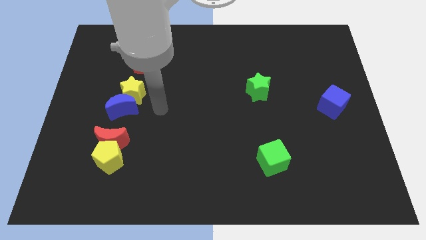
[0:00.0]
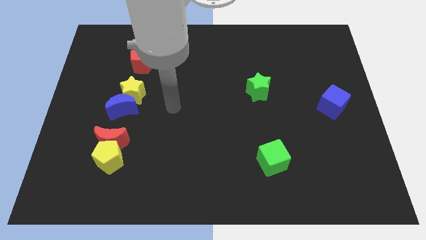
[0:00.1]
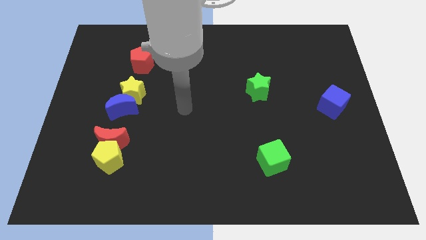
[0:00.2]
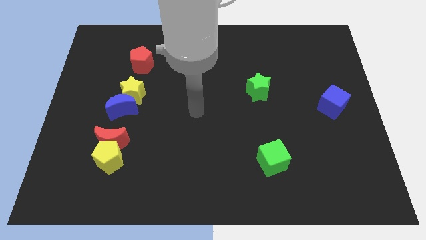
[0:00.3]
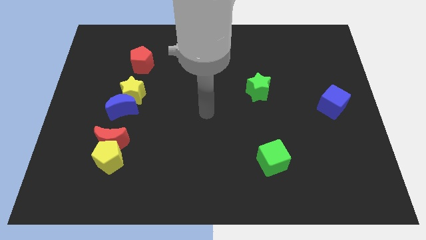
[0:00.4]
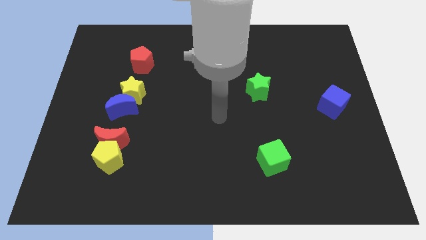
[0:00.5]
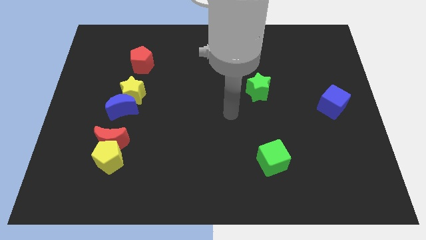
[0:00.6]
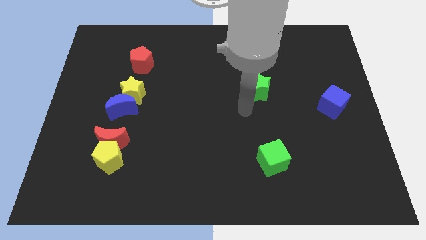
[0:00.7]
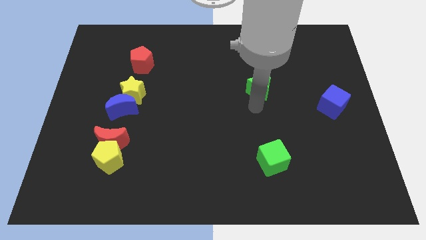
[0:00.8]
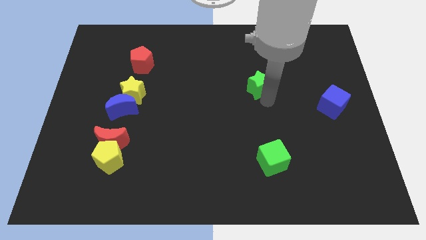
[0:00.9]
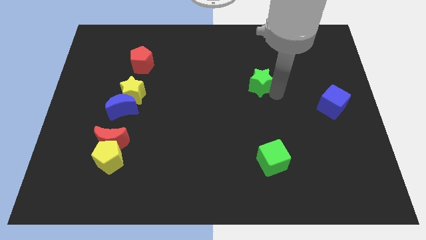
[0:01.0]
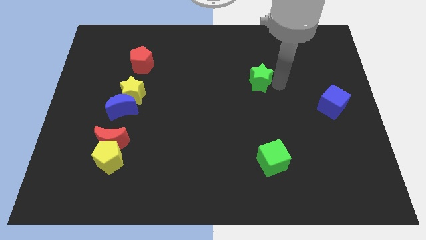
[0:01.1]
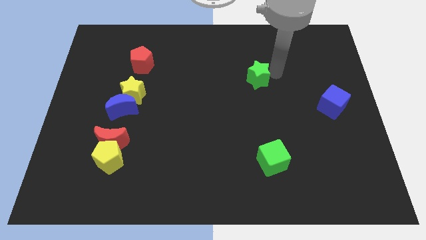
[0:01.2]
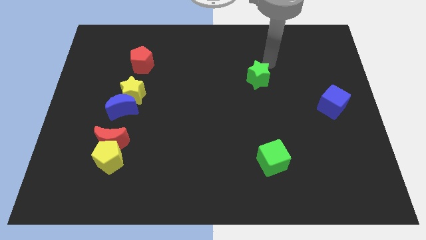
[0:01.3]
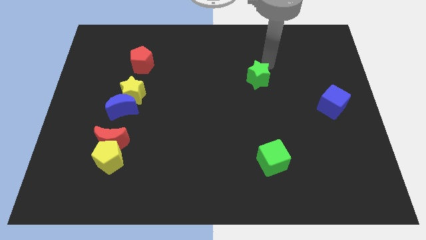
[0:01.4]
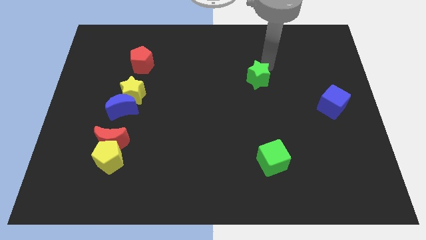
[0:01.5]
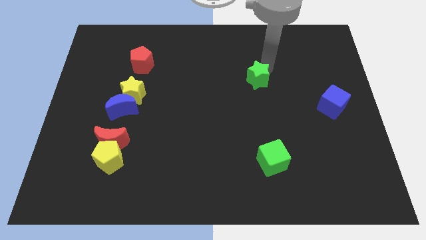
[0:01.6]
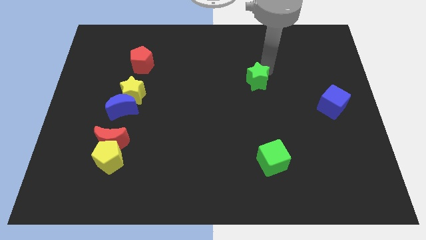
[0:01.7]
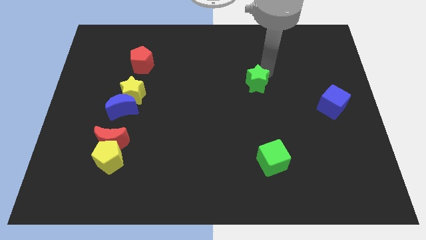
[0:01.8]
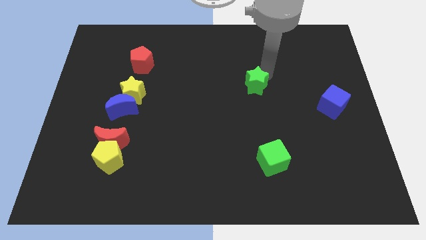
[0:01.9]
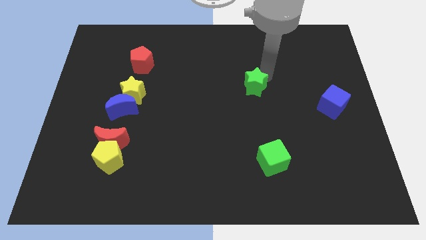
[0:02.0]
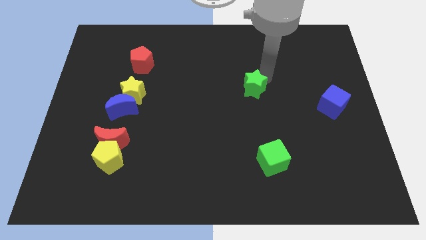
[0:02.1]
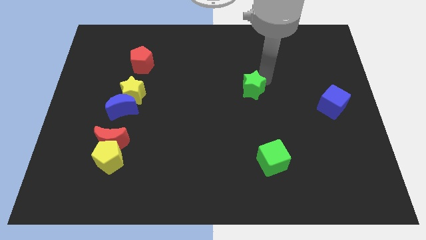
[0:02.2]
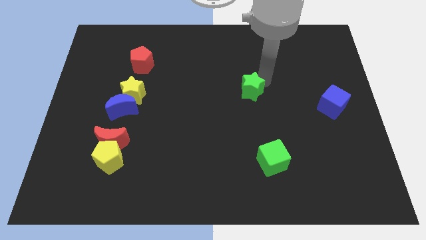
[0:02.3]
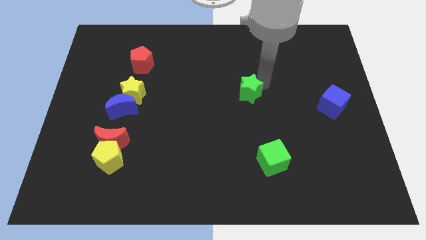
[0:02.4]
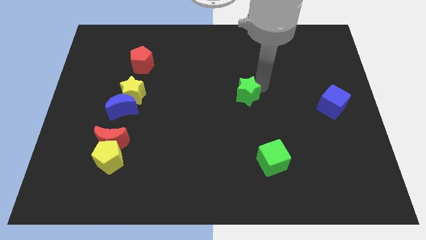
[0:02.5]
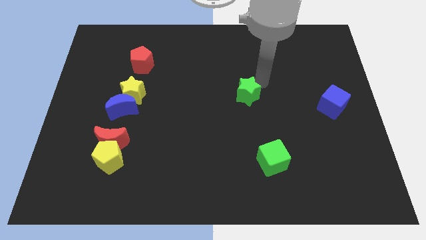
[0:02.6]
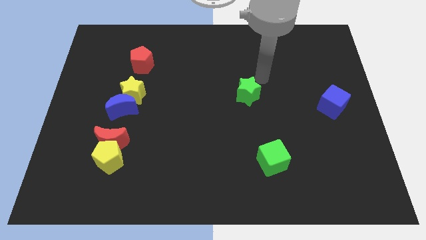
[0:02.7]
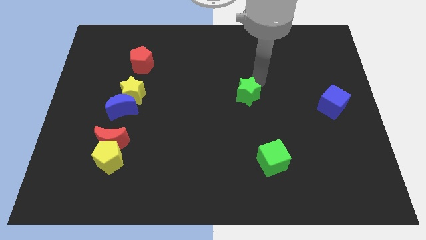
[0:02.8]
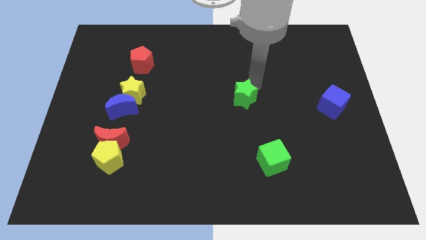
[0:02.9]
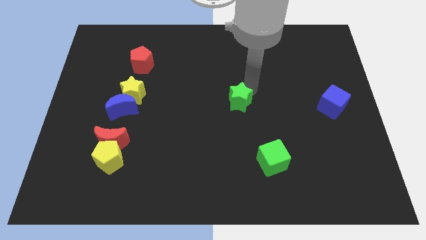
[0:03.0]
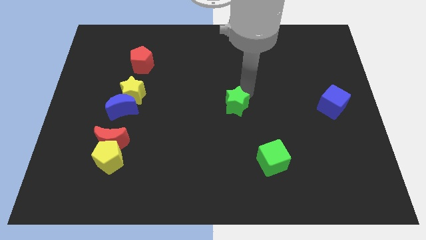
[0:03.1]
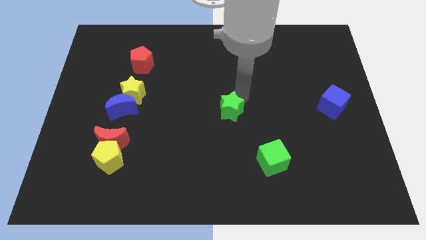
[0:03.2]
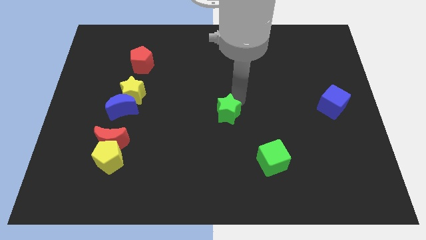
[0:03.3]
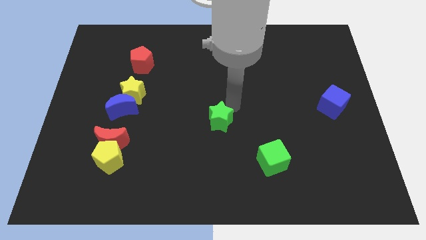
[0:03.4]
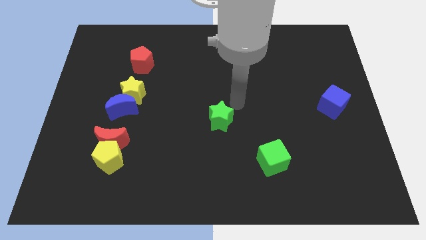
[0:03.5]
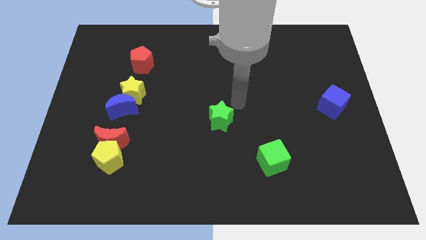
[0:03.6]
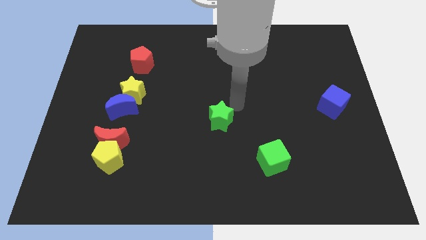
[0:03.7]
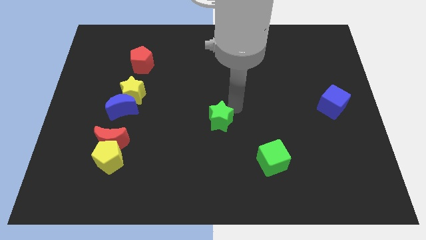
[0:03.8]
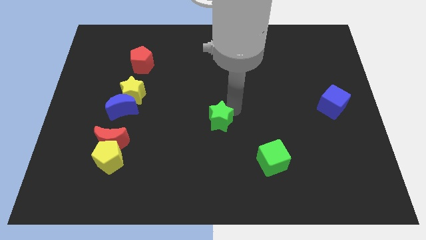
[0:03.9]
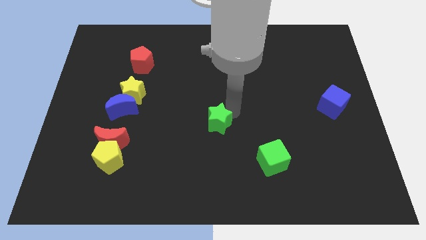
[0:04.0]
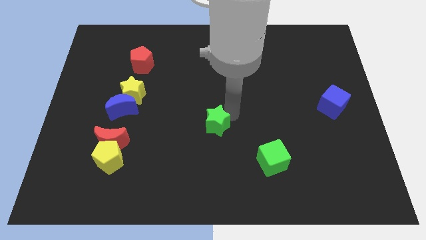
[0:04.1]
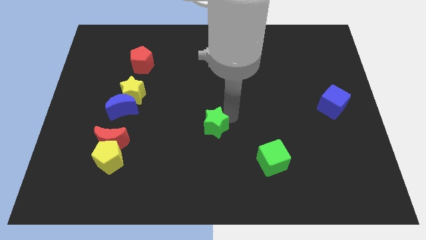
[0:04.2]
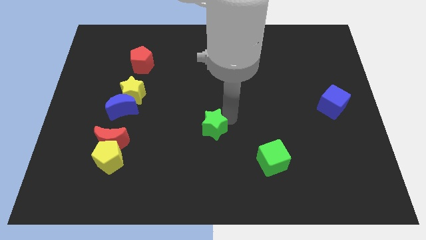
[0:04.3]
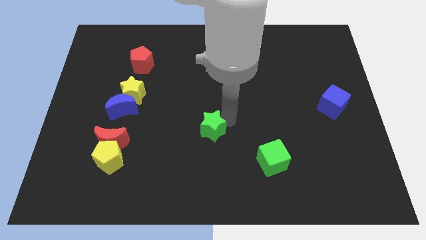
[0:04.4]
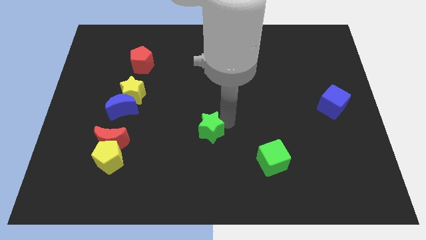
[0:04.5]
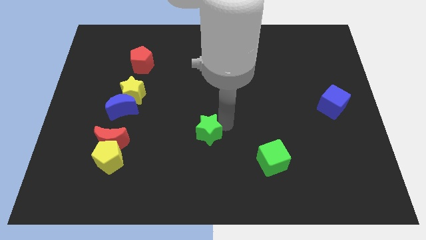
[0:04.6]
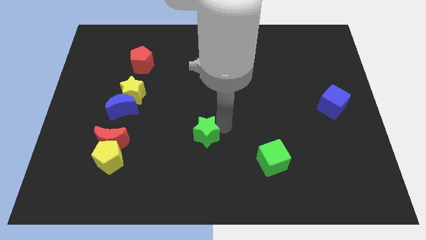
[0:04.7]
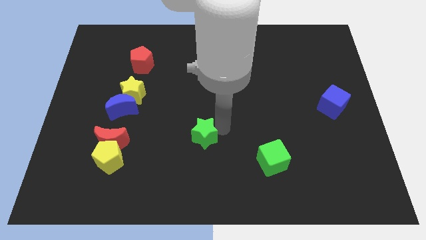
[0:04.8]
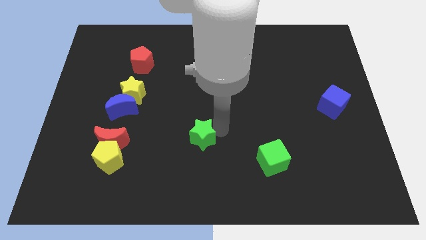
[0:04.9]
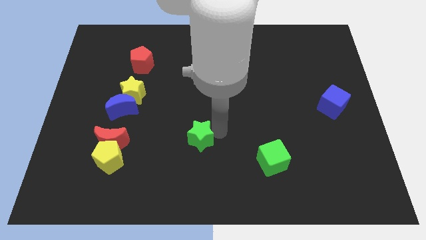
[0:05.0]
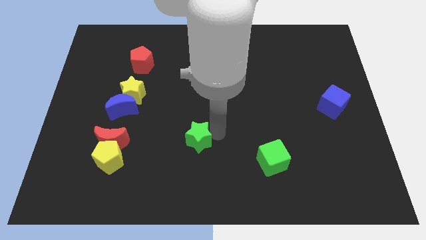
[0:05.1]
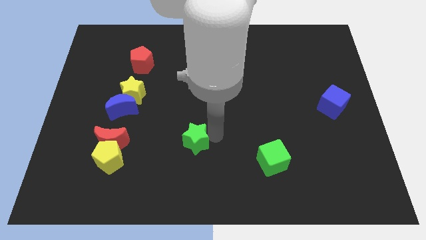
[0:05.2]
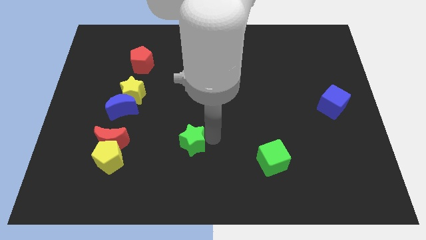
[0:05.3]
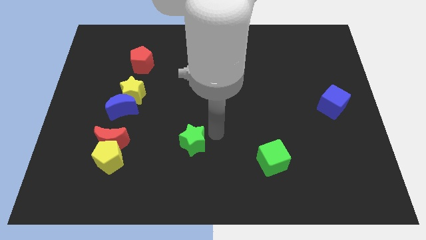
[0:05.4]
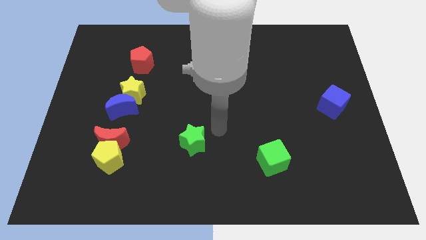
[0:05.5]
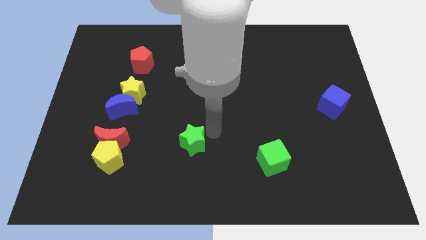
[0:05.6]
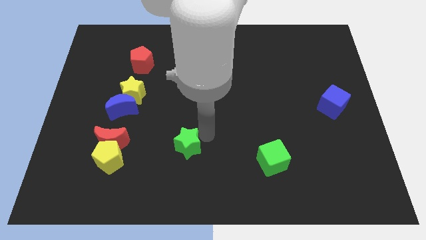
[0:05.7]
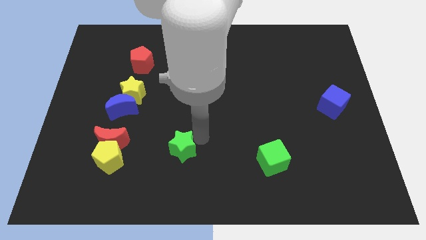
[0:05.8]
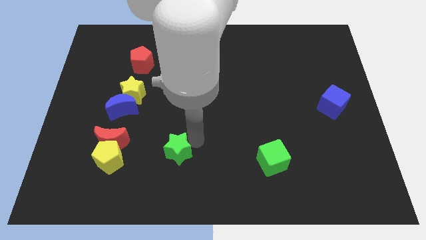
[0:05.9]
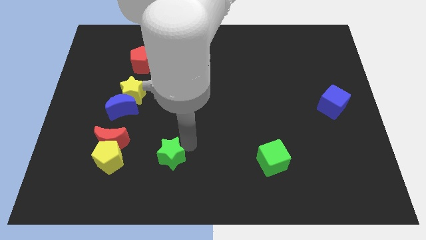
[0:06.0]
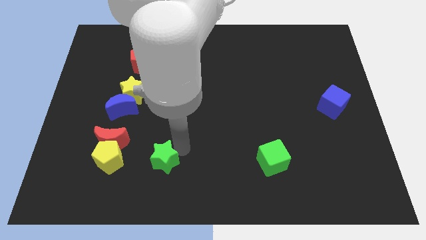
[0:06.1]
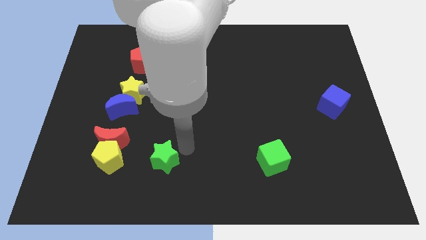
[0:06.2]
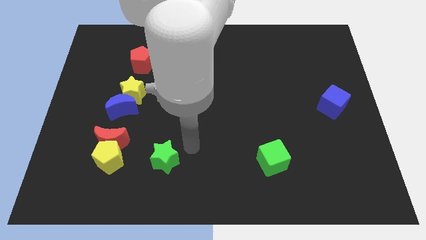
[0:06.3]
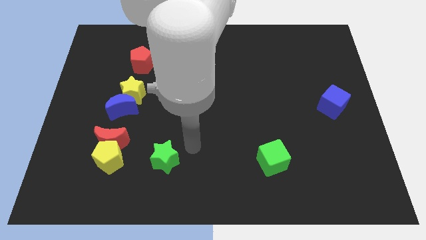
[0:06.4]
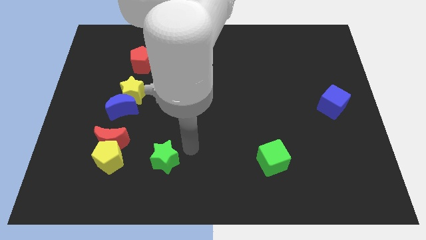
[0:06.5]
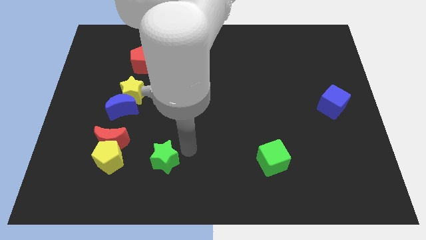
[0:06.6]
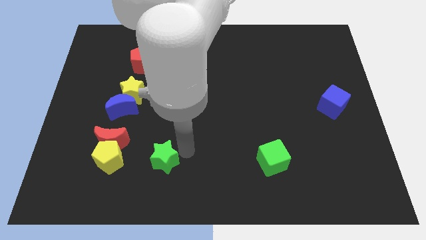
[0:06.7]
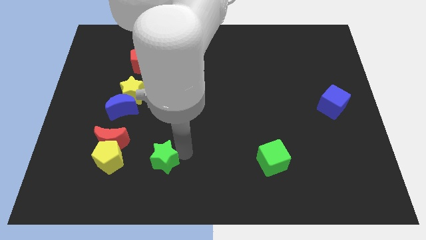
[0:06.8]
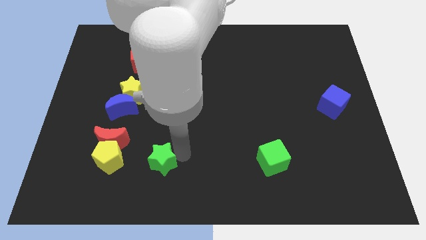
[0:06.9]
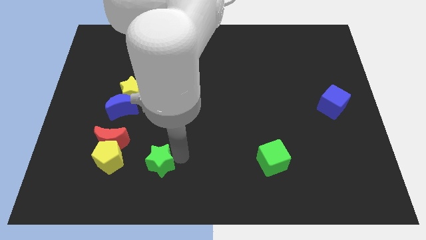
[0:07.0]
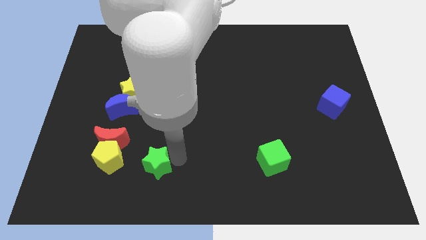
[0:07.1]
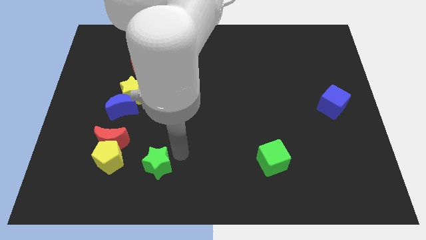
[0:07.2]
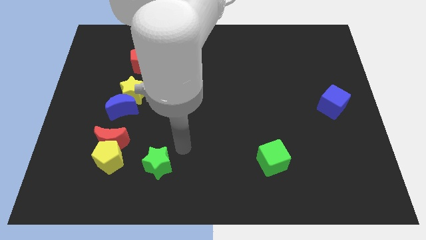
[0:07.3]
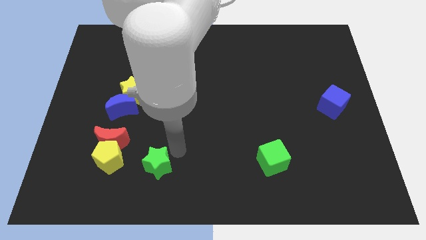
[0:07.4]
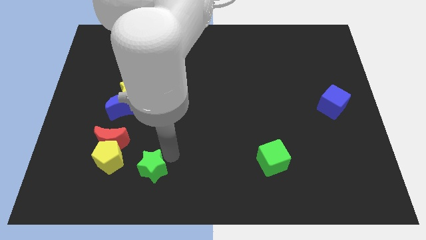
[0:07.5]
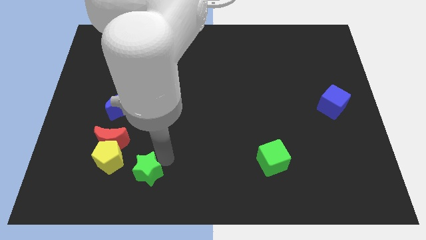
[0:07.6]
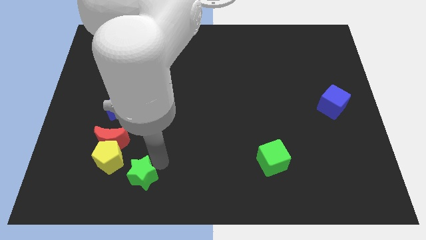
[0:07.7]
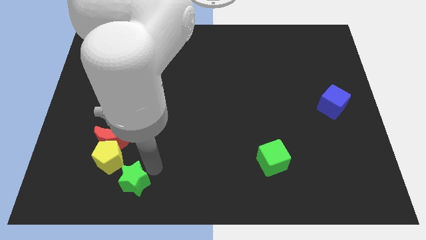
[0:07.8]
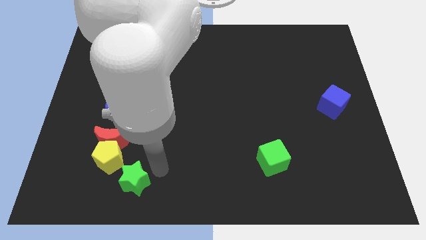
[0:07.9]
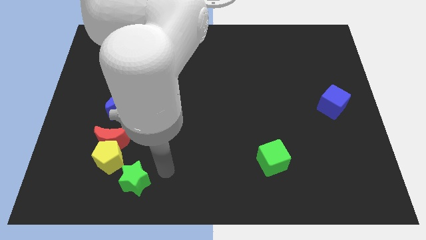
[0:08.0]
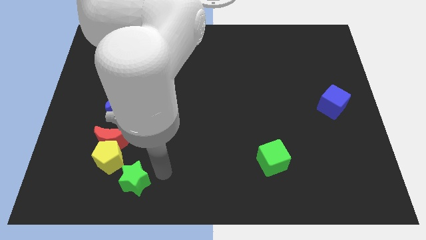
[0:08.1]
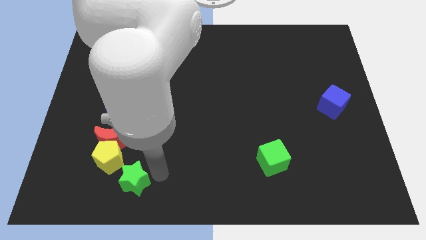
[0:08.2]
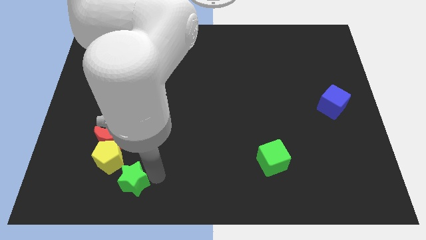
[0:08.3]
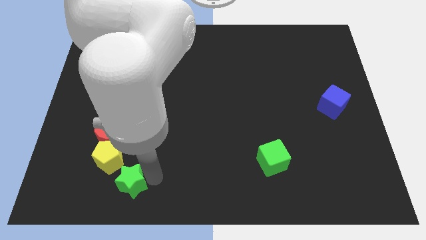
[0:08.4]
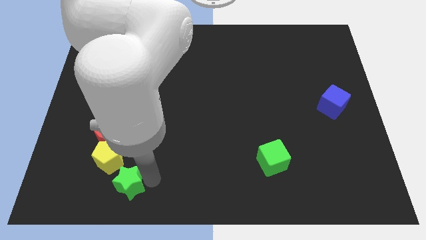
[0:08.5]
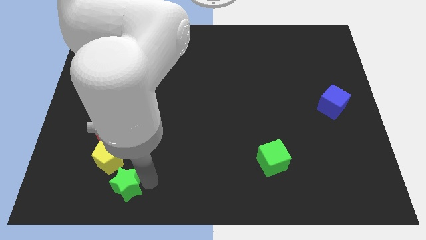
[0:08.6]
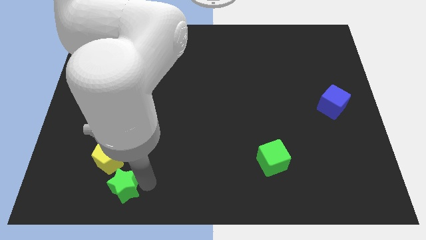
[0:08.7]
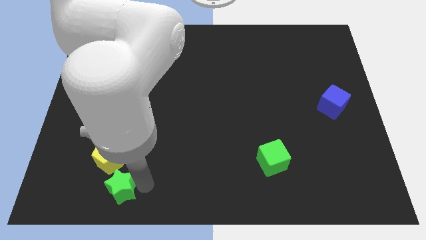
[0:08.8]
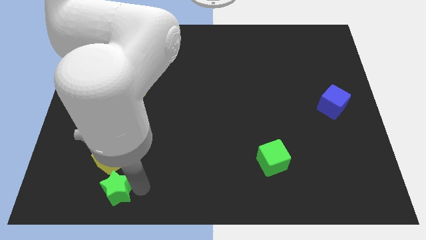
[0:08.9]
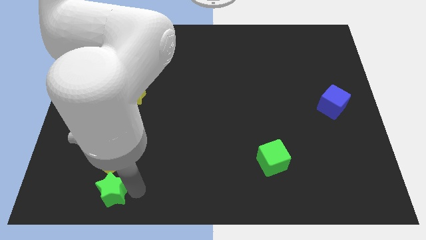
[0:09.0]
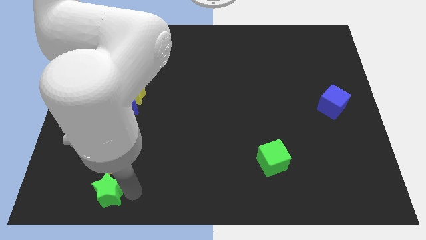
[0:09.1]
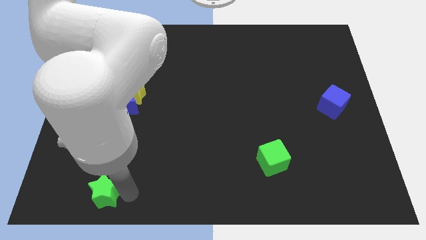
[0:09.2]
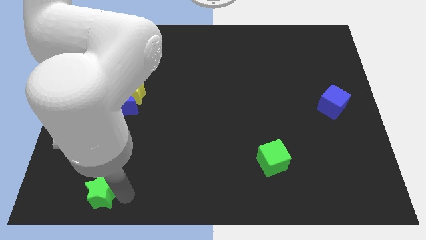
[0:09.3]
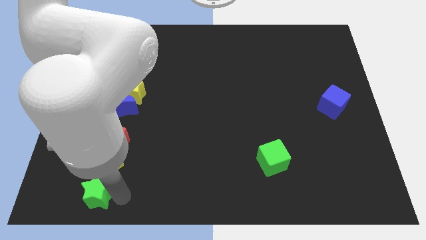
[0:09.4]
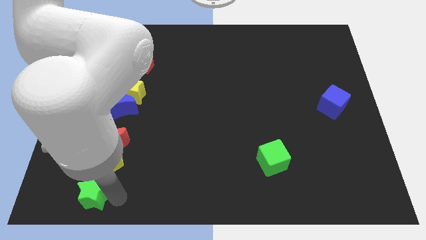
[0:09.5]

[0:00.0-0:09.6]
push the green star to the bottom left of the yellow pentagon
